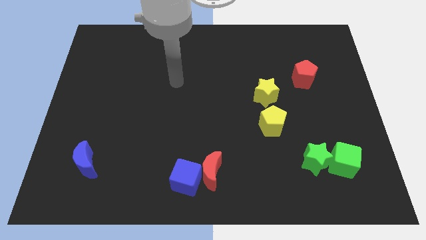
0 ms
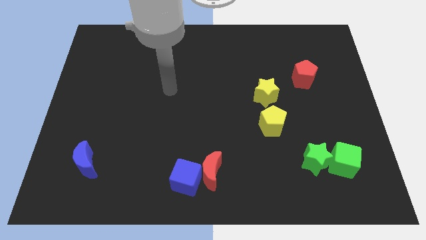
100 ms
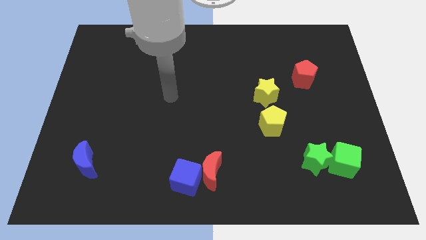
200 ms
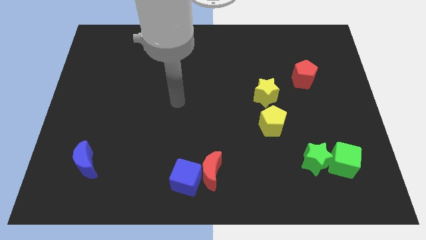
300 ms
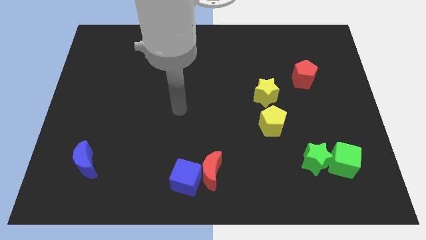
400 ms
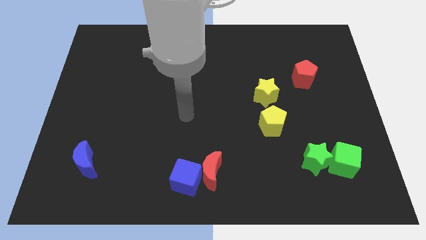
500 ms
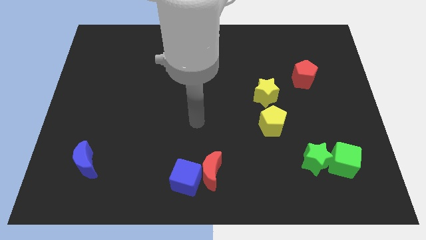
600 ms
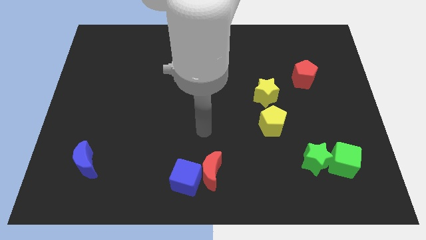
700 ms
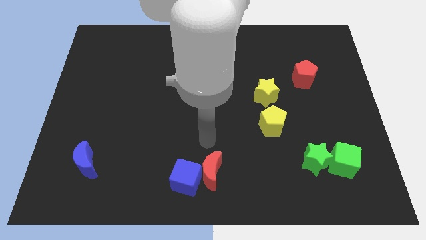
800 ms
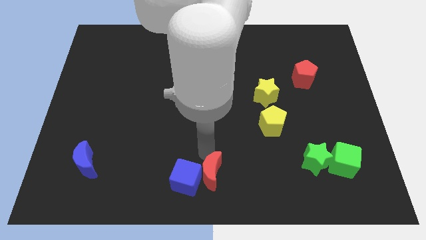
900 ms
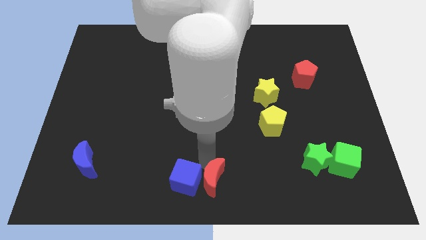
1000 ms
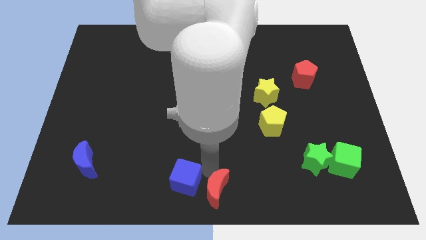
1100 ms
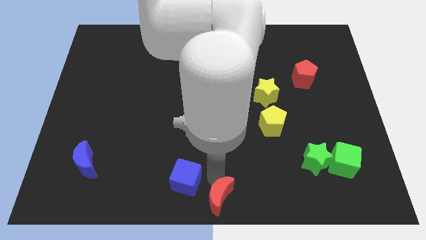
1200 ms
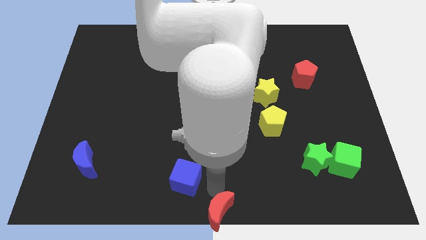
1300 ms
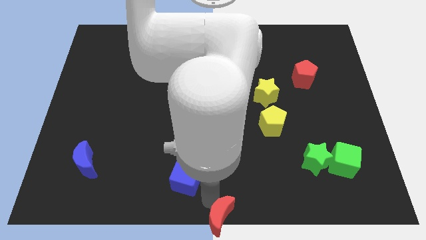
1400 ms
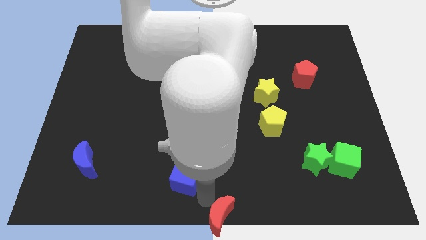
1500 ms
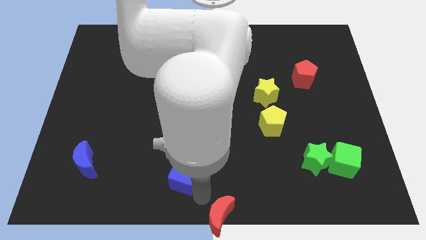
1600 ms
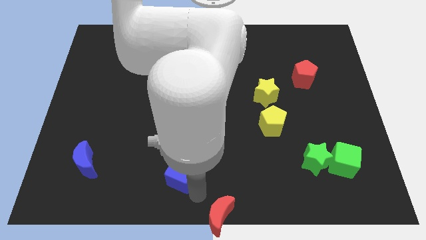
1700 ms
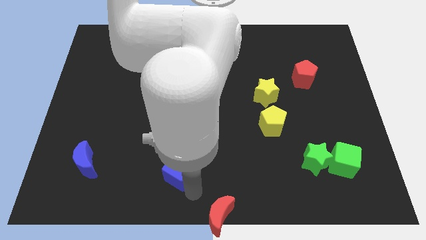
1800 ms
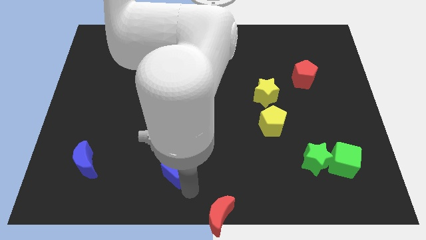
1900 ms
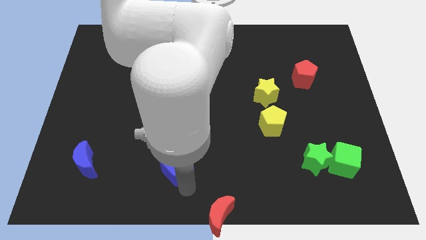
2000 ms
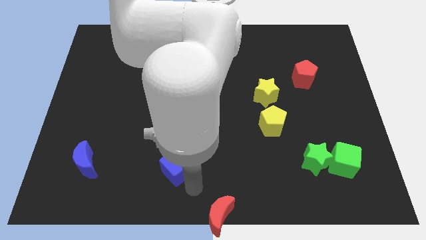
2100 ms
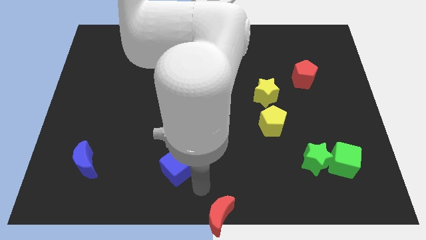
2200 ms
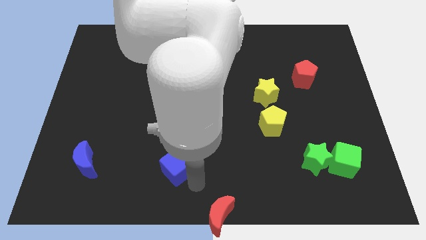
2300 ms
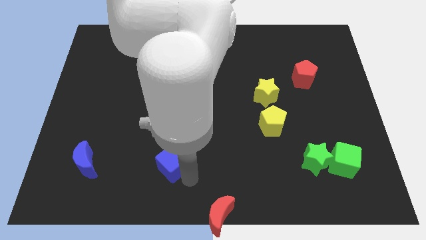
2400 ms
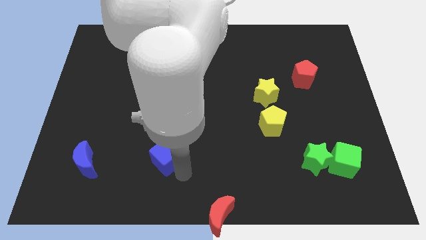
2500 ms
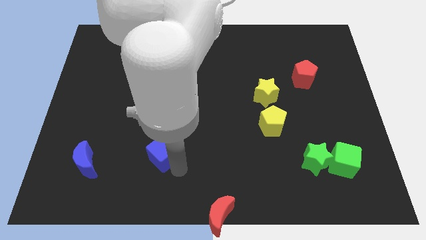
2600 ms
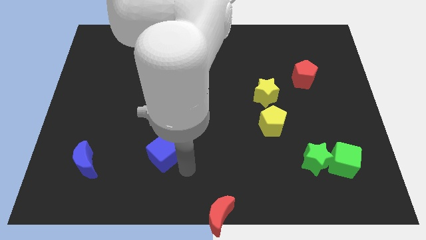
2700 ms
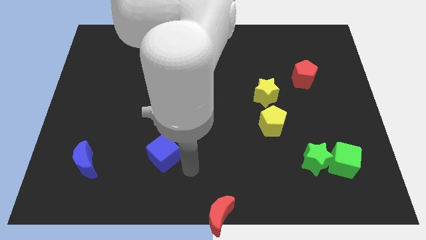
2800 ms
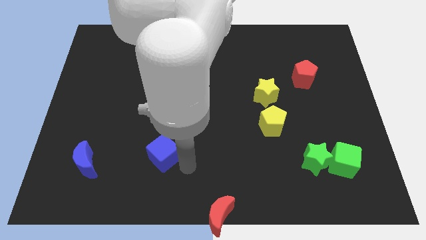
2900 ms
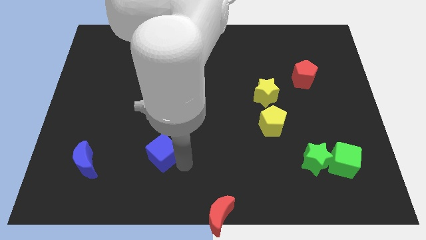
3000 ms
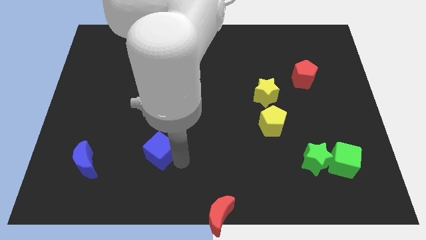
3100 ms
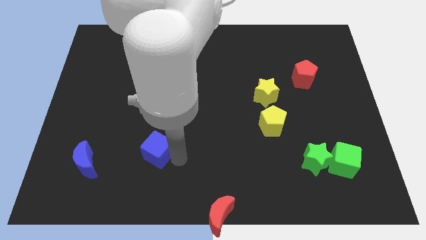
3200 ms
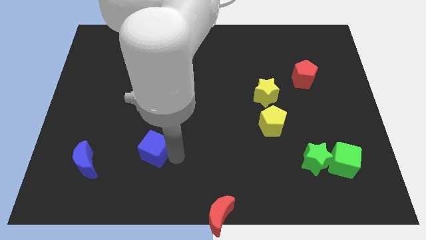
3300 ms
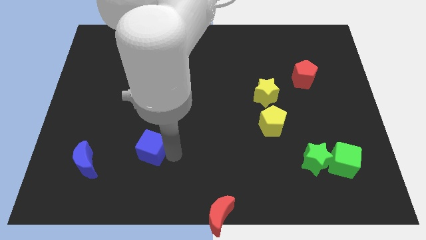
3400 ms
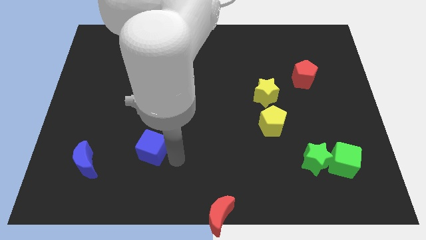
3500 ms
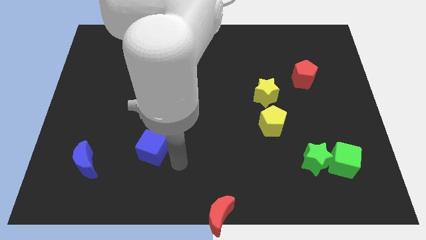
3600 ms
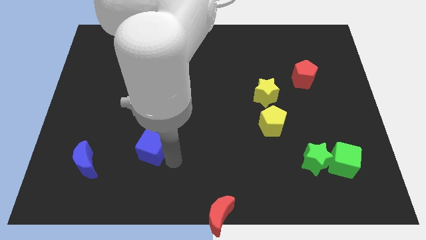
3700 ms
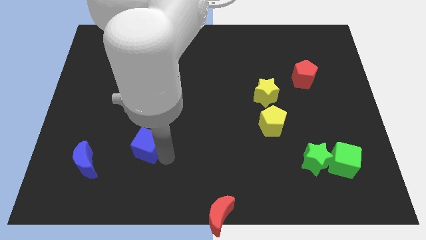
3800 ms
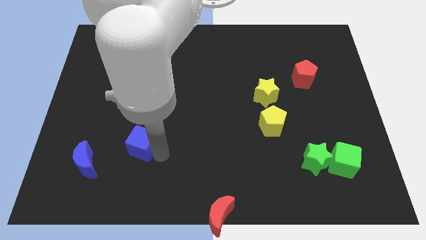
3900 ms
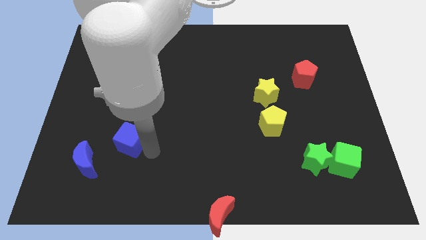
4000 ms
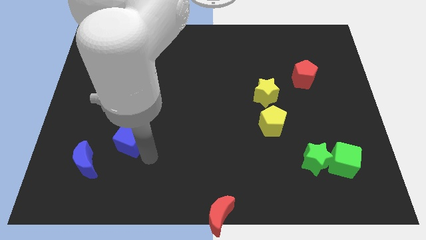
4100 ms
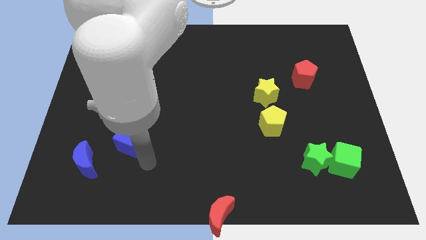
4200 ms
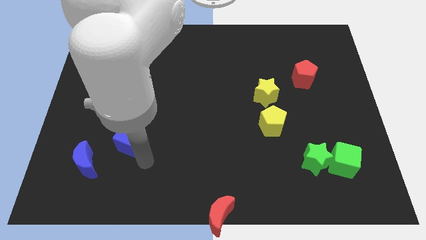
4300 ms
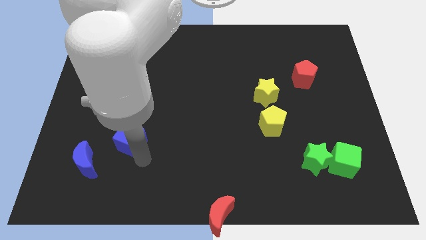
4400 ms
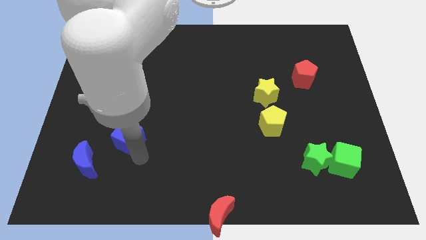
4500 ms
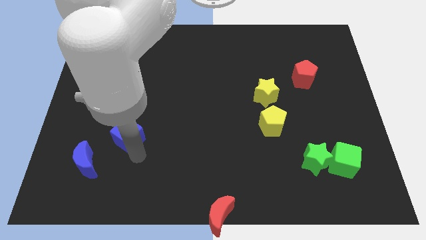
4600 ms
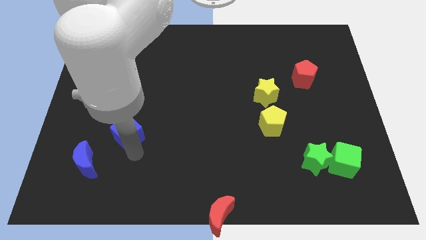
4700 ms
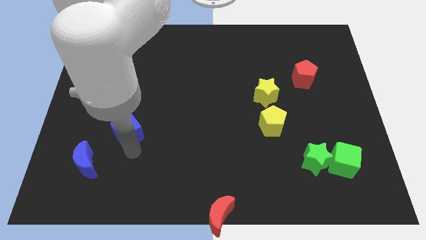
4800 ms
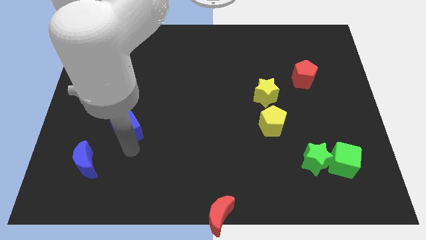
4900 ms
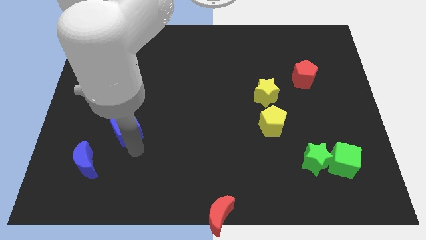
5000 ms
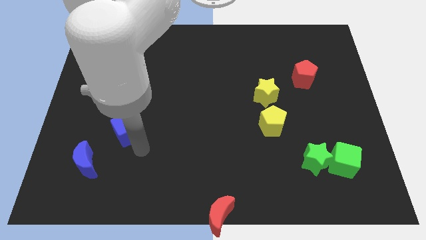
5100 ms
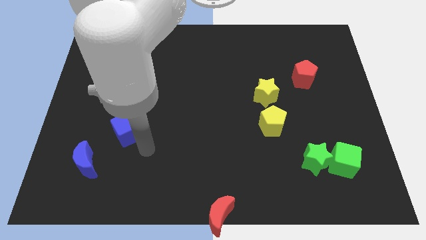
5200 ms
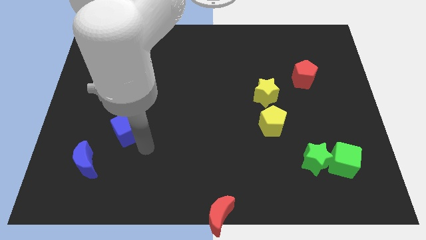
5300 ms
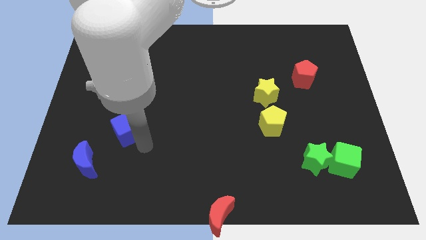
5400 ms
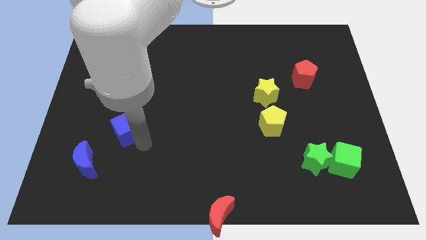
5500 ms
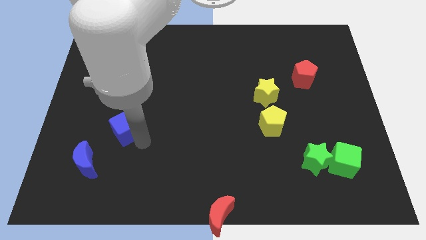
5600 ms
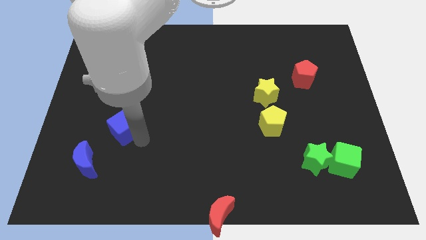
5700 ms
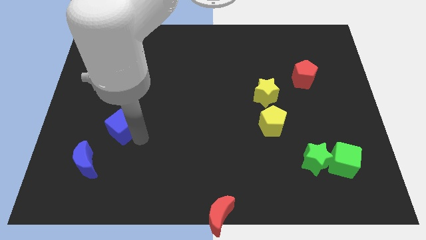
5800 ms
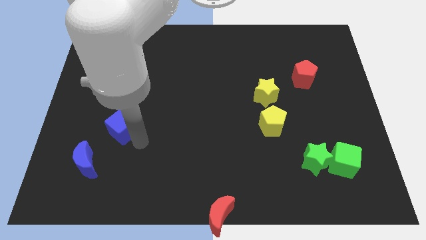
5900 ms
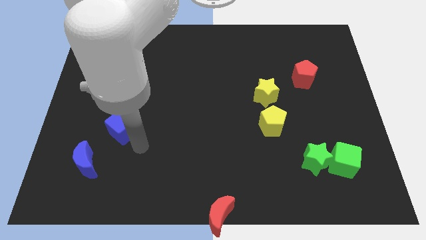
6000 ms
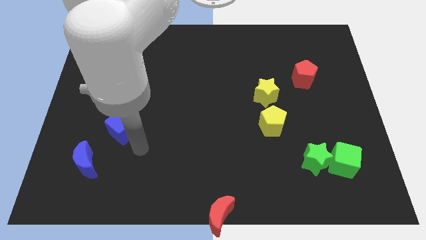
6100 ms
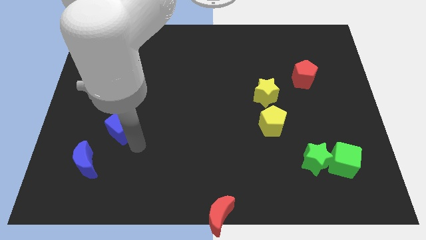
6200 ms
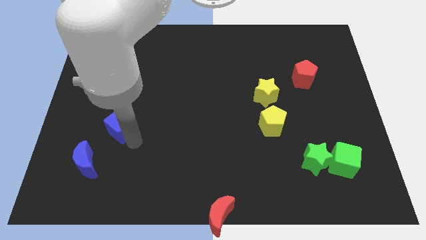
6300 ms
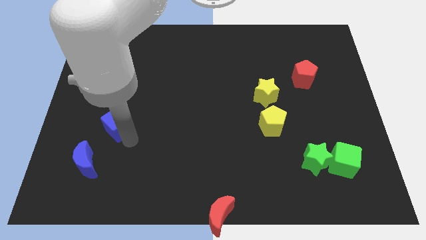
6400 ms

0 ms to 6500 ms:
push the blue cube upwards and then to the left

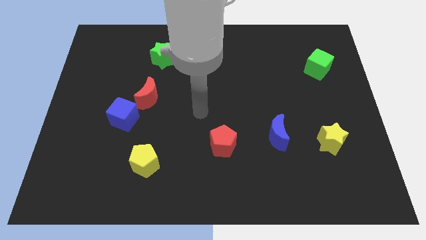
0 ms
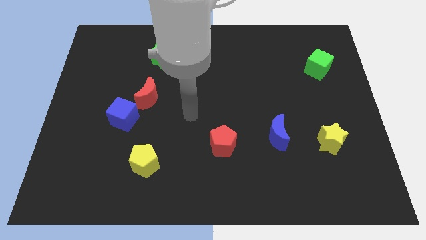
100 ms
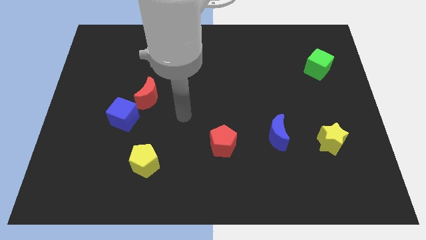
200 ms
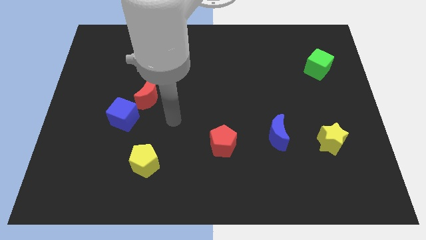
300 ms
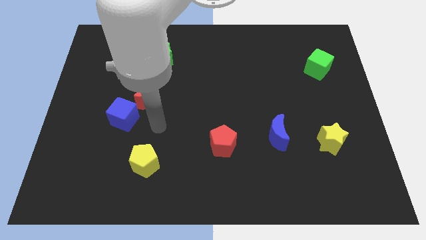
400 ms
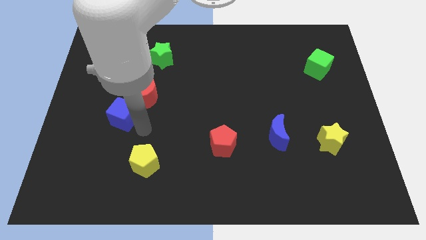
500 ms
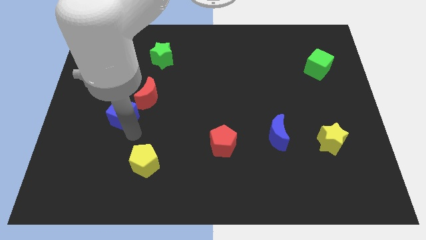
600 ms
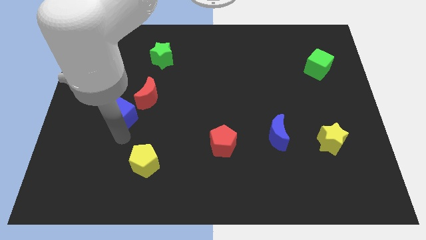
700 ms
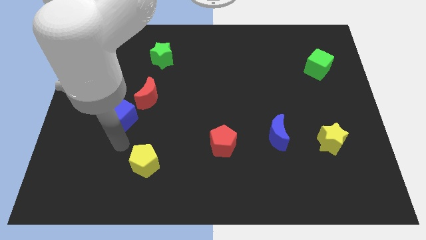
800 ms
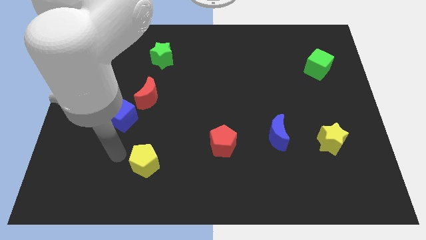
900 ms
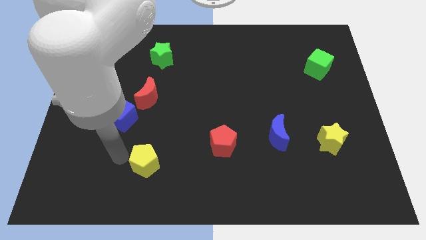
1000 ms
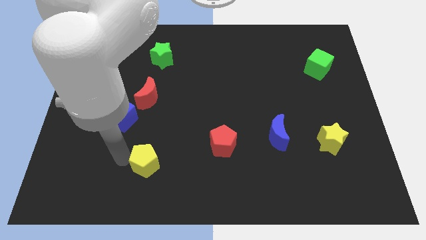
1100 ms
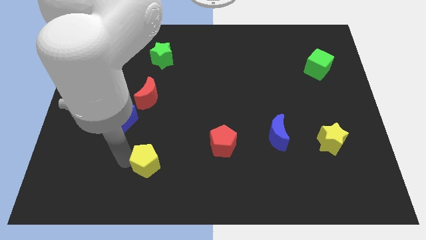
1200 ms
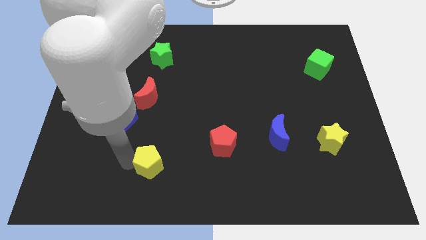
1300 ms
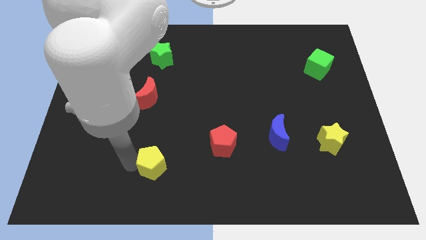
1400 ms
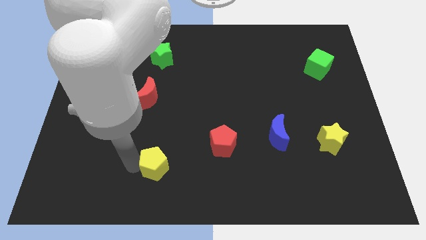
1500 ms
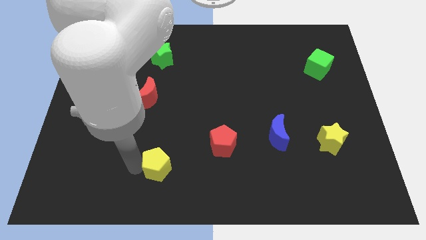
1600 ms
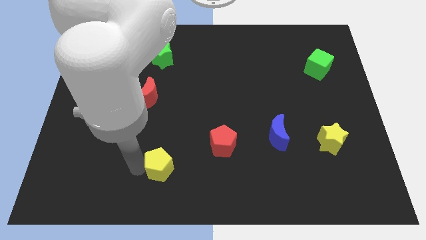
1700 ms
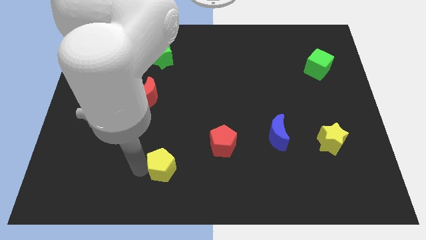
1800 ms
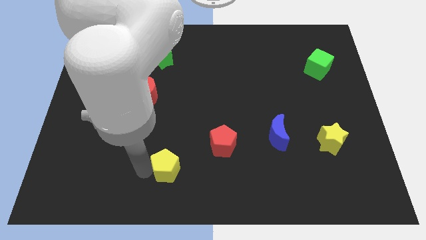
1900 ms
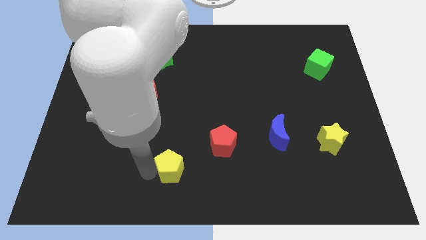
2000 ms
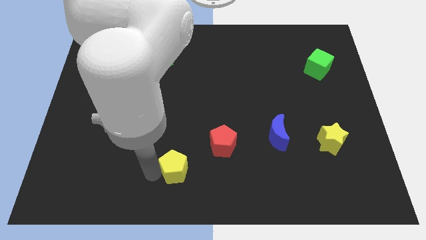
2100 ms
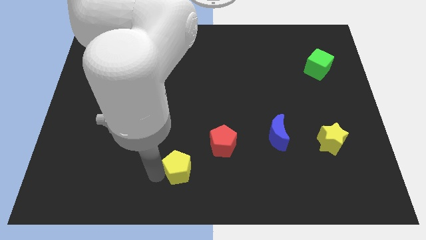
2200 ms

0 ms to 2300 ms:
slightly push the yellow pentagon right
